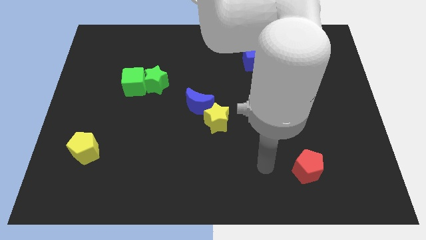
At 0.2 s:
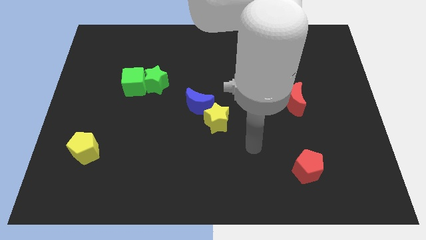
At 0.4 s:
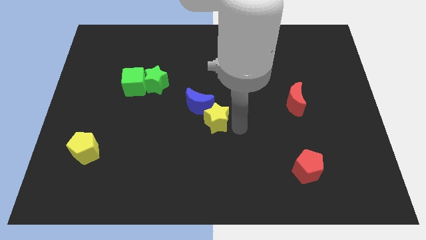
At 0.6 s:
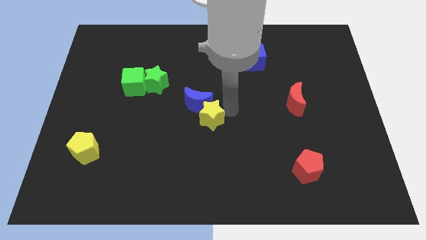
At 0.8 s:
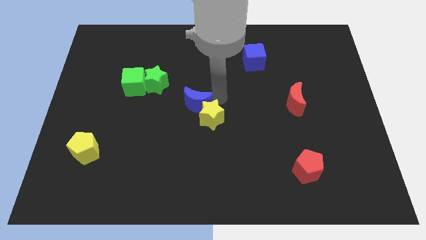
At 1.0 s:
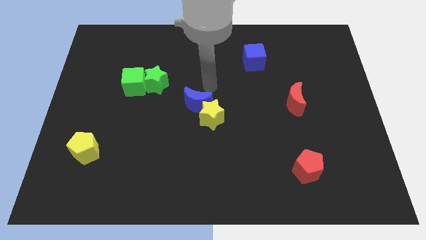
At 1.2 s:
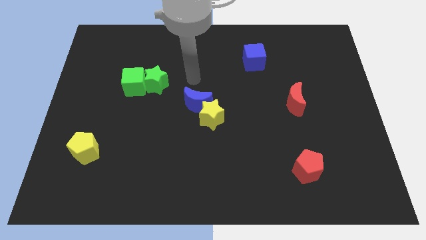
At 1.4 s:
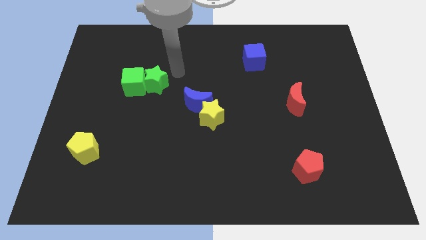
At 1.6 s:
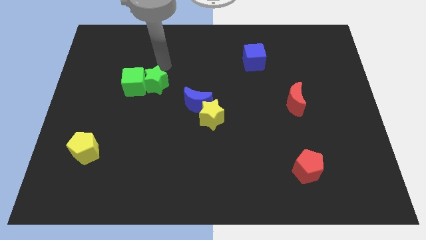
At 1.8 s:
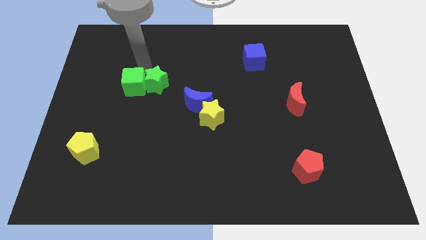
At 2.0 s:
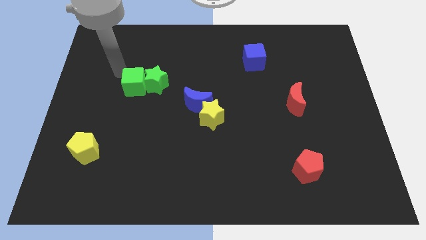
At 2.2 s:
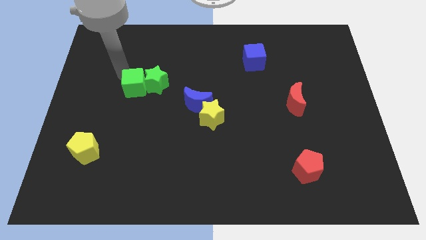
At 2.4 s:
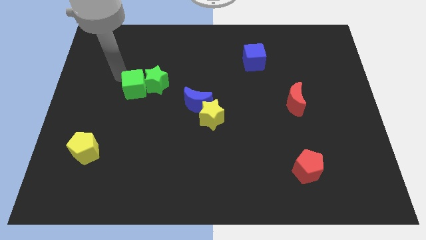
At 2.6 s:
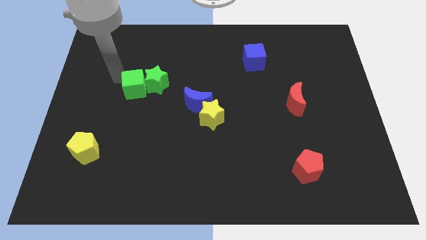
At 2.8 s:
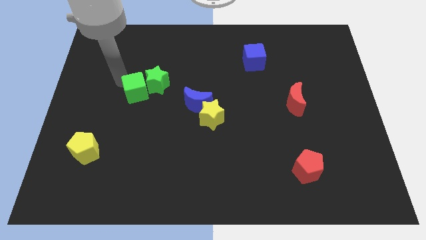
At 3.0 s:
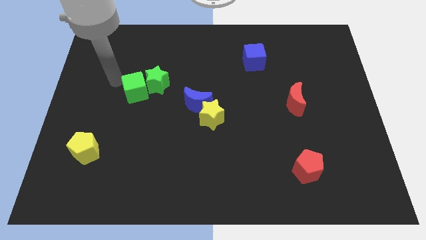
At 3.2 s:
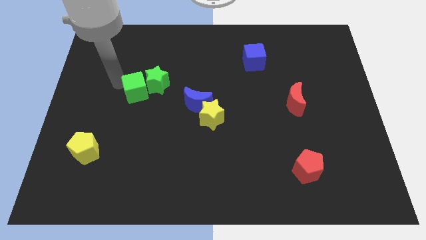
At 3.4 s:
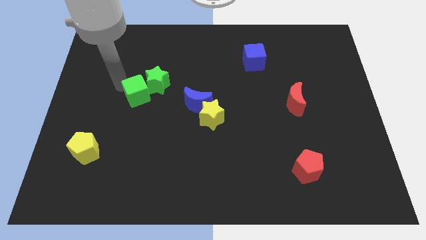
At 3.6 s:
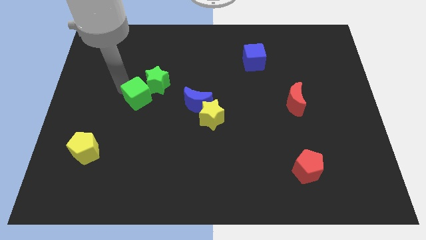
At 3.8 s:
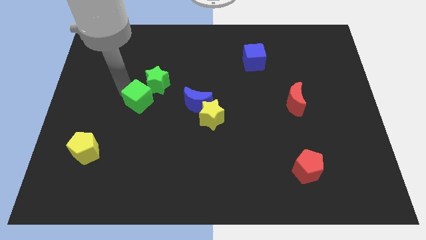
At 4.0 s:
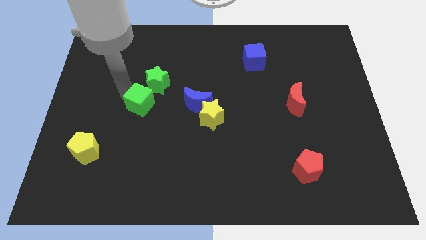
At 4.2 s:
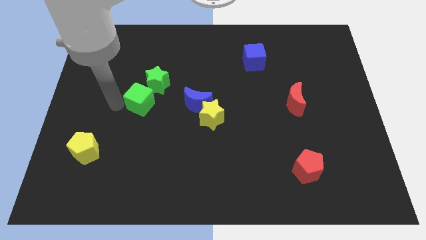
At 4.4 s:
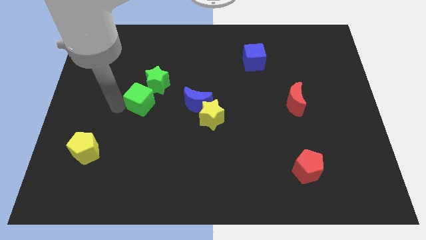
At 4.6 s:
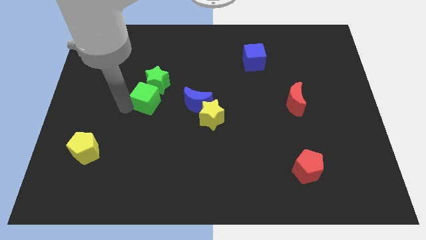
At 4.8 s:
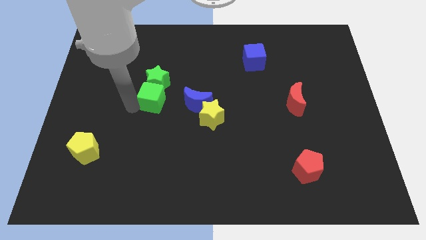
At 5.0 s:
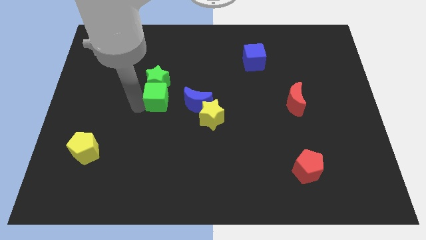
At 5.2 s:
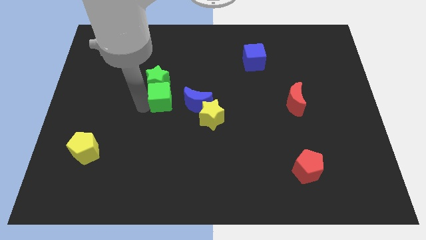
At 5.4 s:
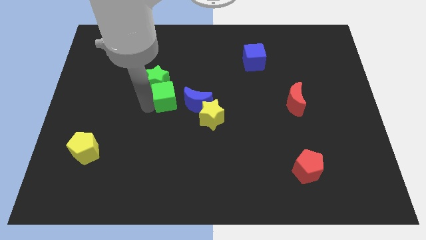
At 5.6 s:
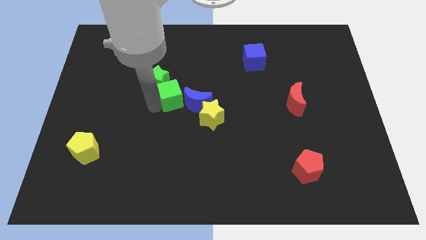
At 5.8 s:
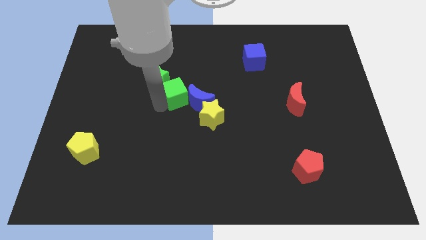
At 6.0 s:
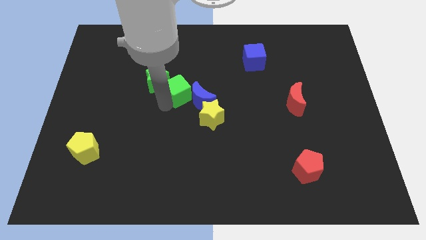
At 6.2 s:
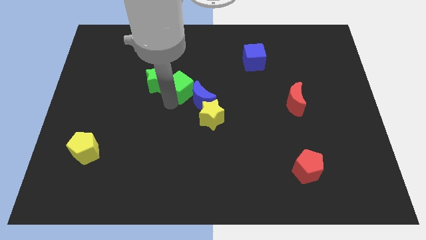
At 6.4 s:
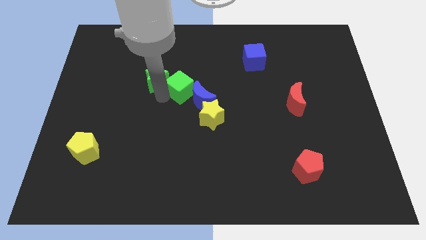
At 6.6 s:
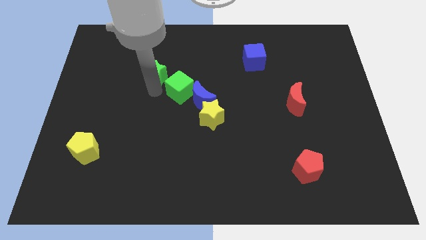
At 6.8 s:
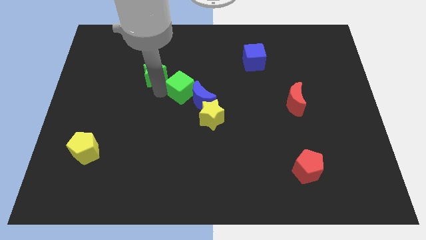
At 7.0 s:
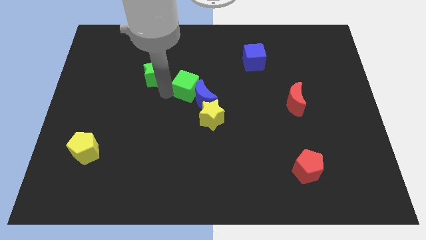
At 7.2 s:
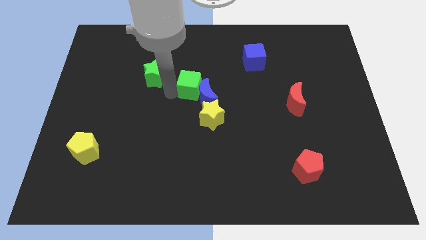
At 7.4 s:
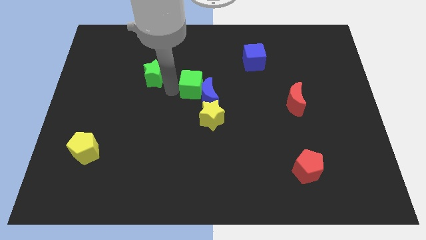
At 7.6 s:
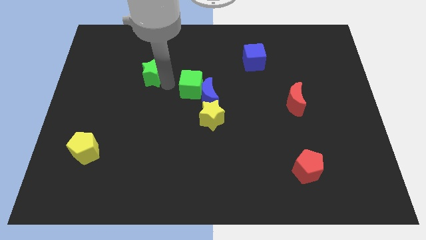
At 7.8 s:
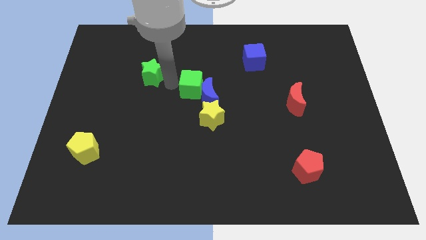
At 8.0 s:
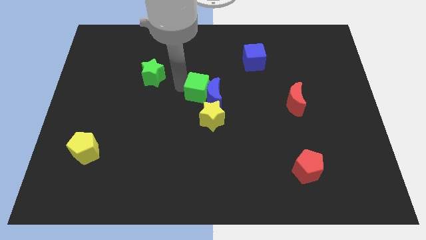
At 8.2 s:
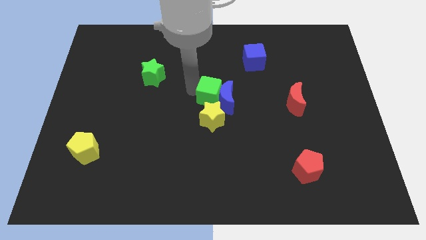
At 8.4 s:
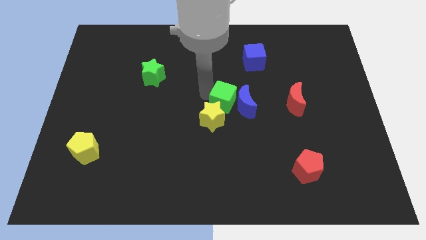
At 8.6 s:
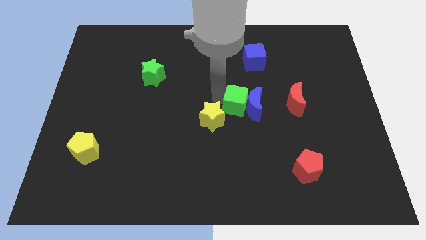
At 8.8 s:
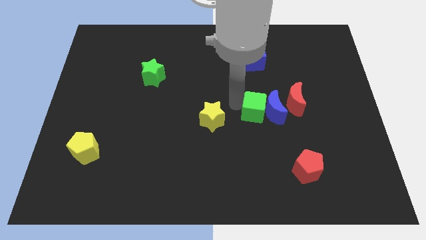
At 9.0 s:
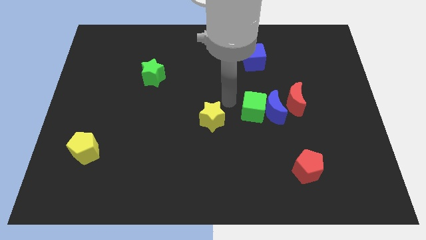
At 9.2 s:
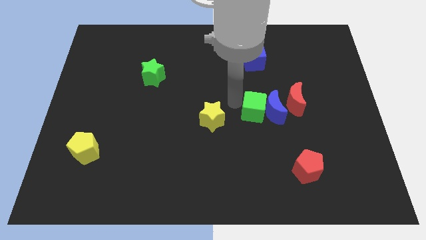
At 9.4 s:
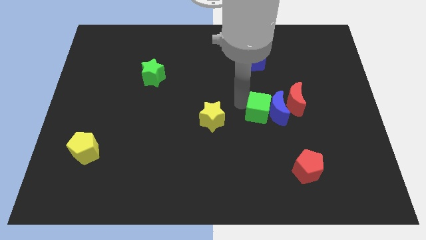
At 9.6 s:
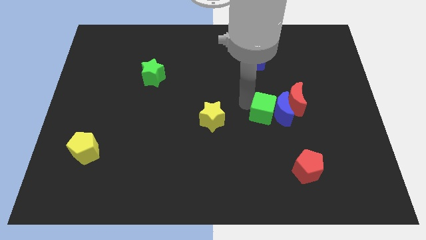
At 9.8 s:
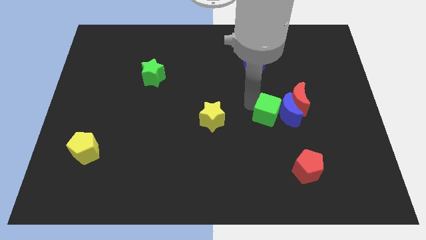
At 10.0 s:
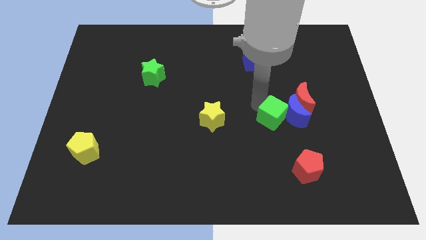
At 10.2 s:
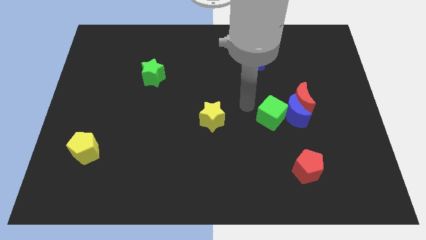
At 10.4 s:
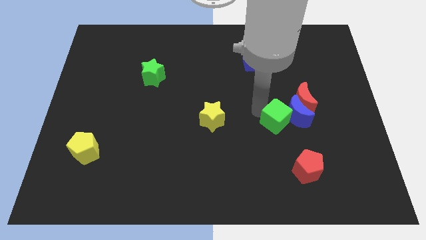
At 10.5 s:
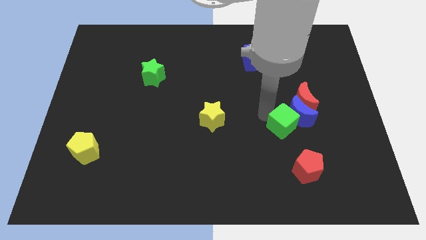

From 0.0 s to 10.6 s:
slide the green cube to the top of the red pentagon

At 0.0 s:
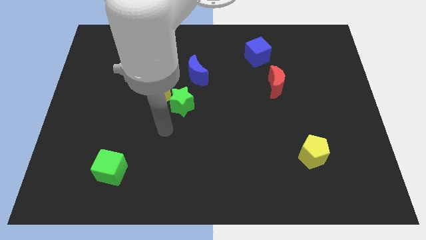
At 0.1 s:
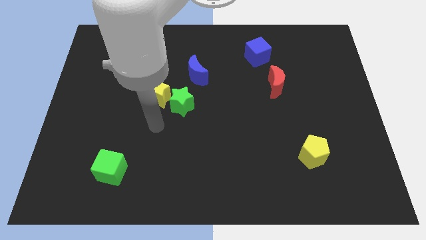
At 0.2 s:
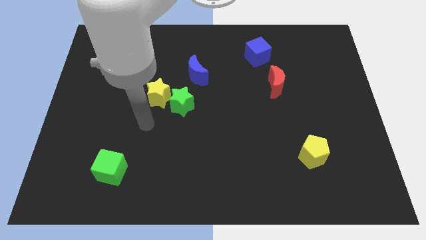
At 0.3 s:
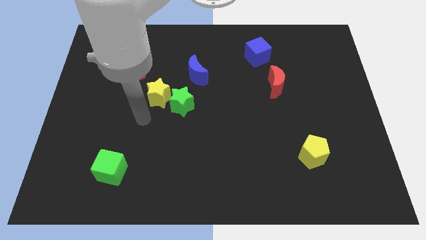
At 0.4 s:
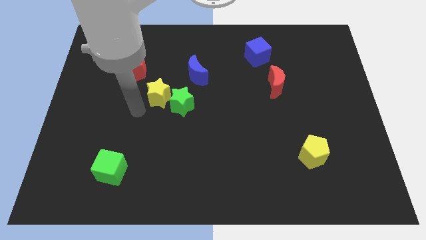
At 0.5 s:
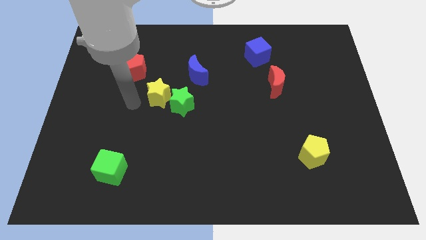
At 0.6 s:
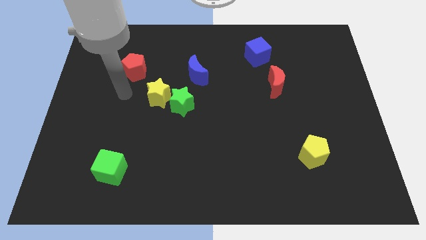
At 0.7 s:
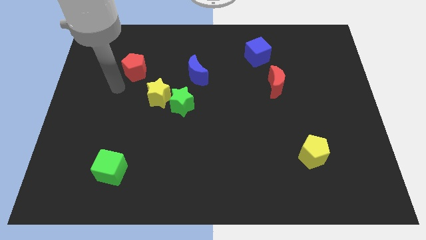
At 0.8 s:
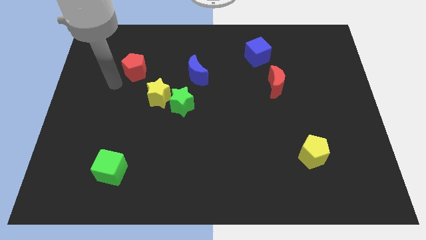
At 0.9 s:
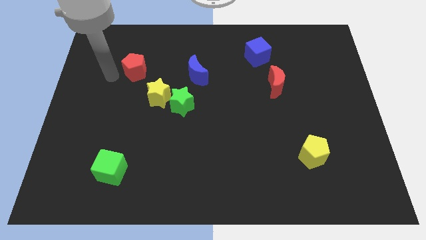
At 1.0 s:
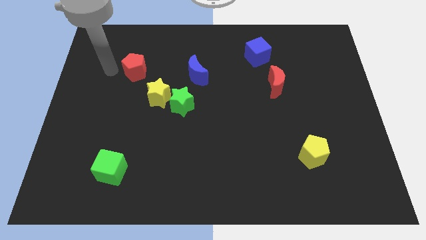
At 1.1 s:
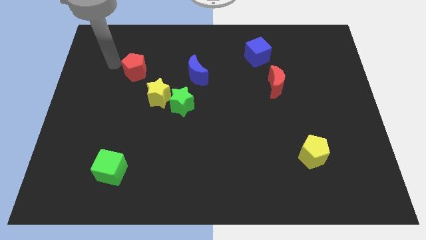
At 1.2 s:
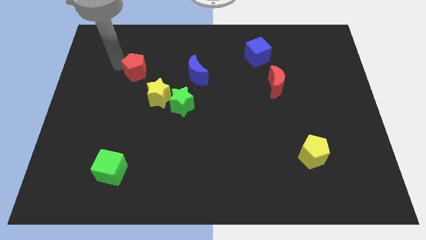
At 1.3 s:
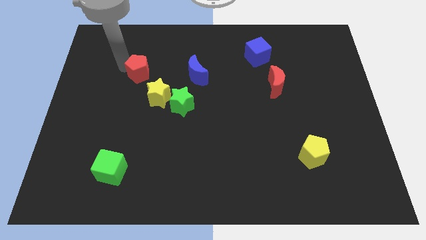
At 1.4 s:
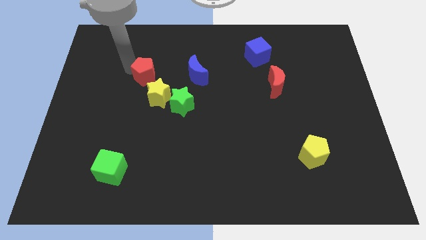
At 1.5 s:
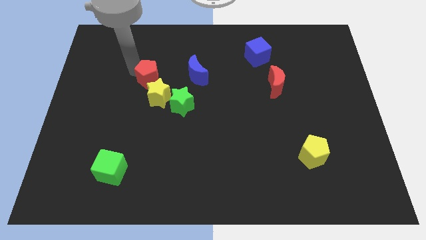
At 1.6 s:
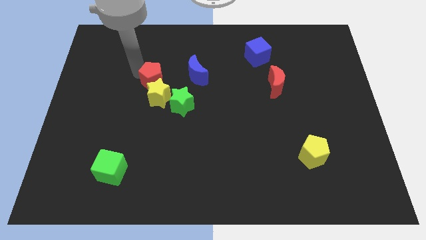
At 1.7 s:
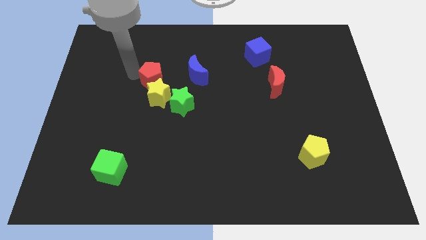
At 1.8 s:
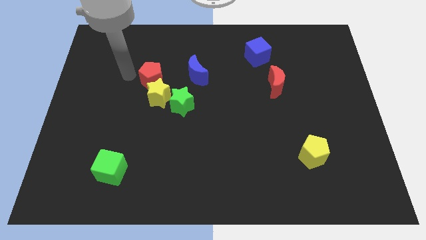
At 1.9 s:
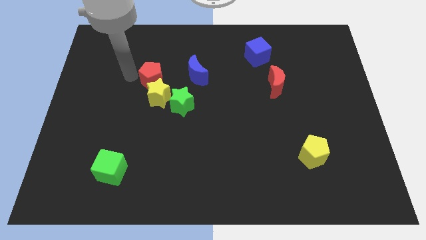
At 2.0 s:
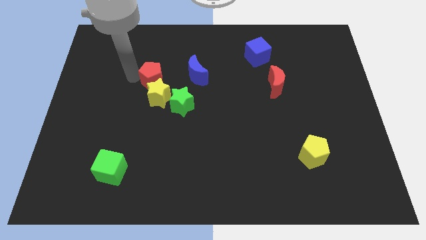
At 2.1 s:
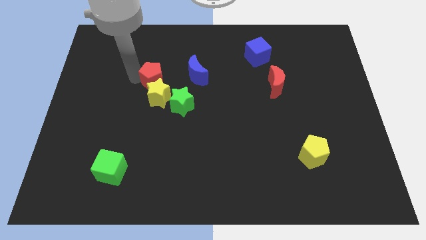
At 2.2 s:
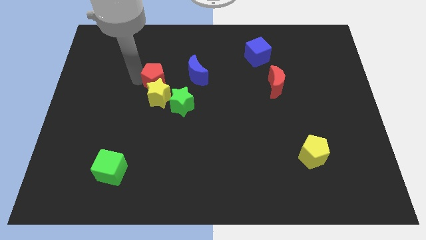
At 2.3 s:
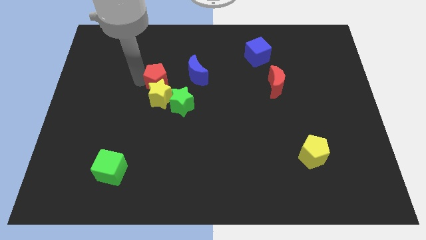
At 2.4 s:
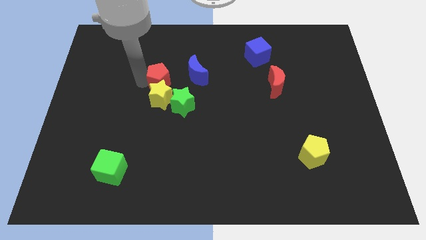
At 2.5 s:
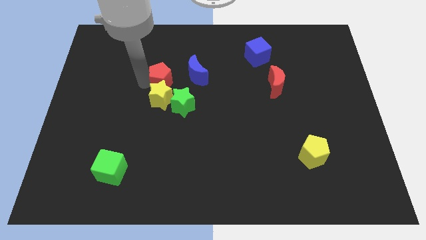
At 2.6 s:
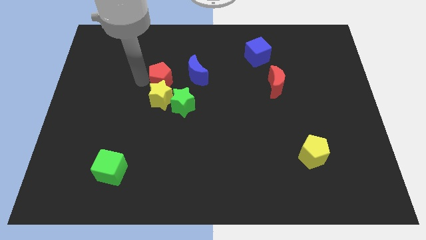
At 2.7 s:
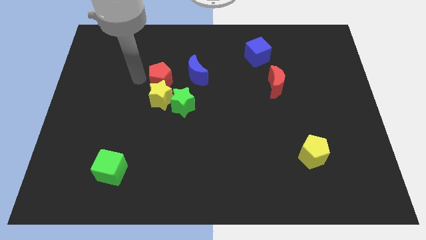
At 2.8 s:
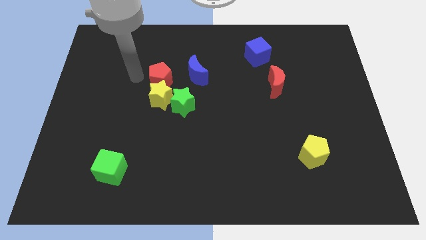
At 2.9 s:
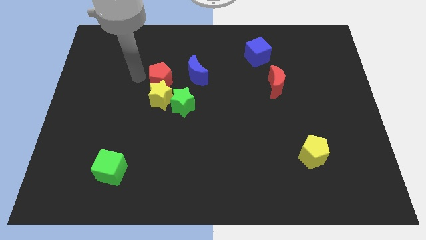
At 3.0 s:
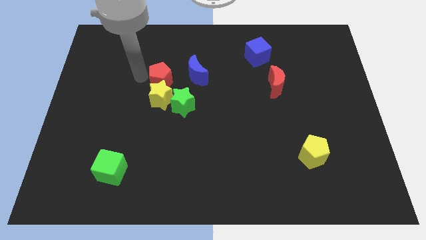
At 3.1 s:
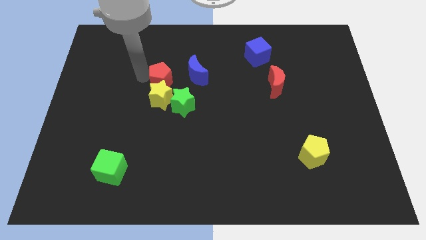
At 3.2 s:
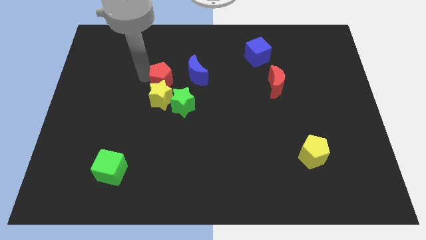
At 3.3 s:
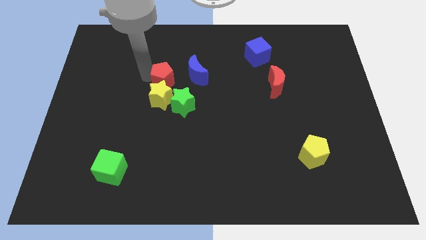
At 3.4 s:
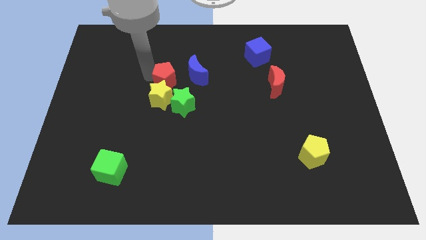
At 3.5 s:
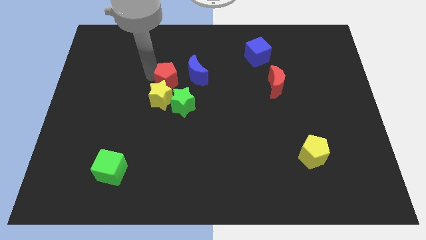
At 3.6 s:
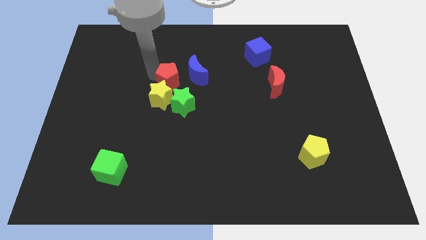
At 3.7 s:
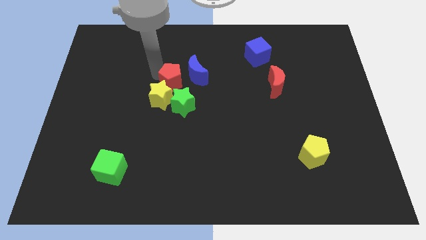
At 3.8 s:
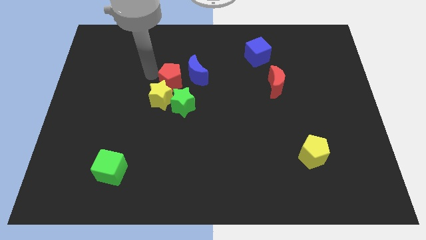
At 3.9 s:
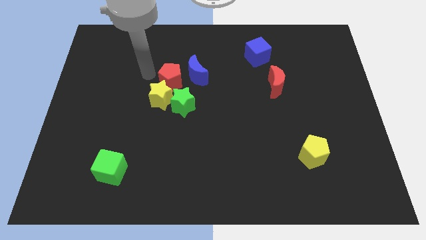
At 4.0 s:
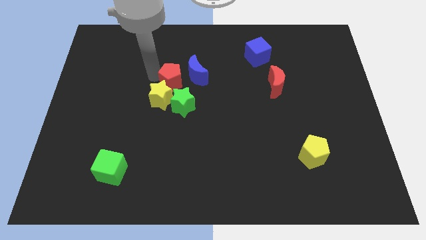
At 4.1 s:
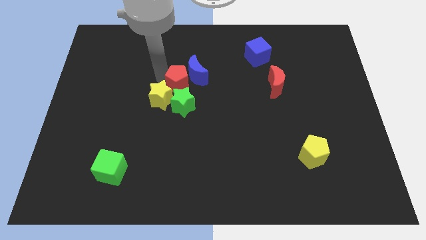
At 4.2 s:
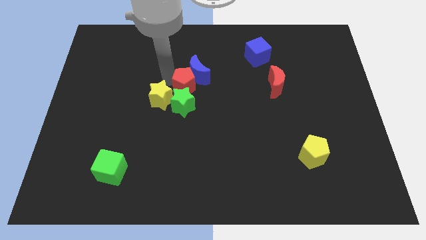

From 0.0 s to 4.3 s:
move the red pentagon diagonally up and to the right of the green star
